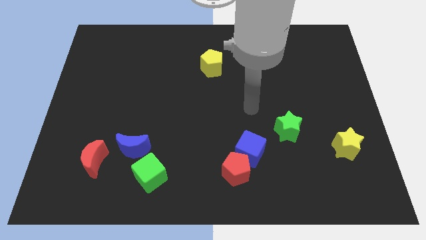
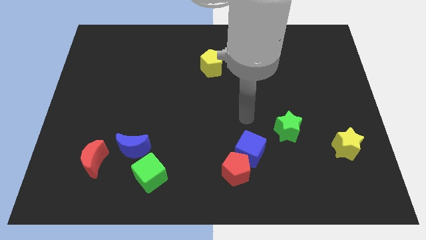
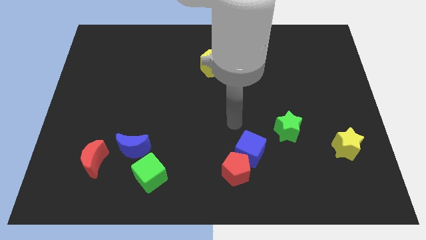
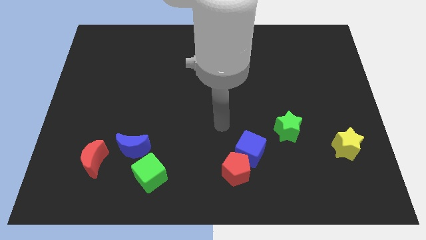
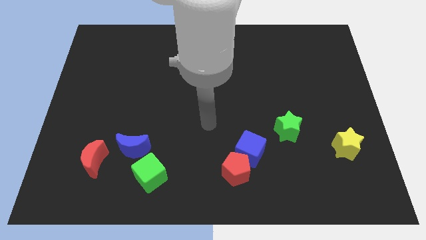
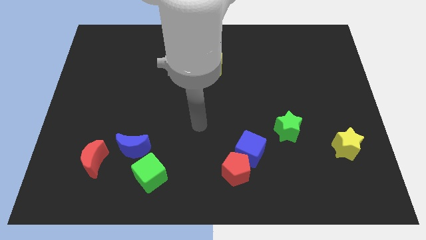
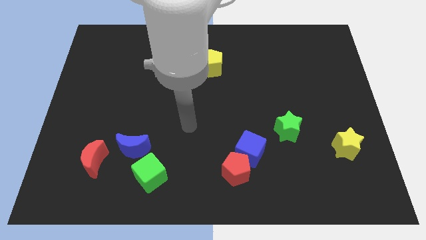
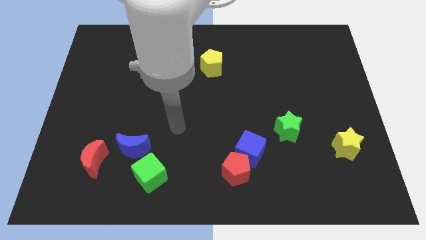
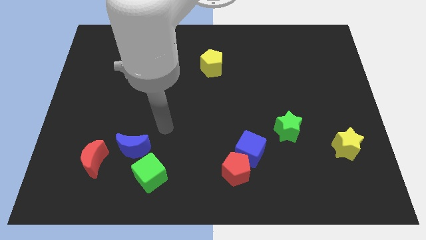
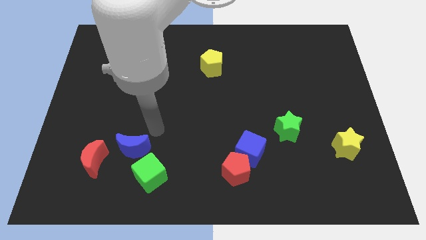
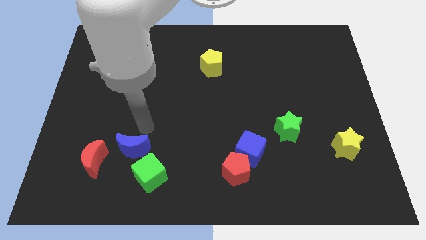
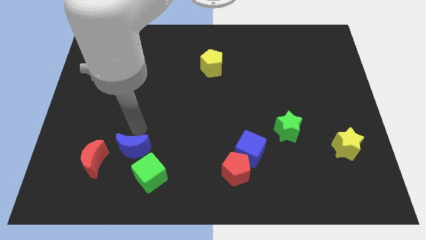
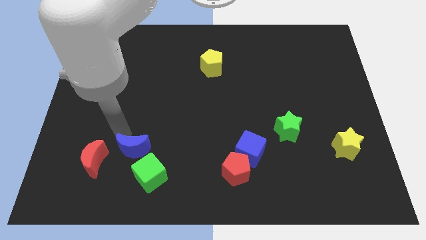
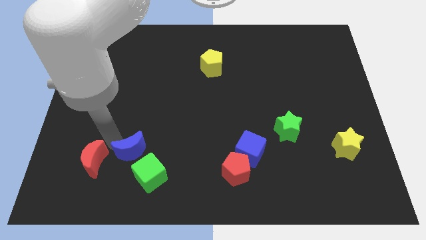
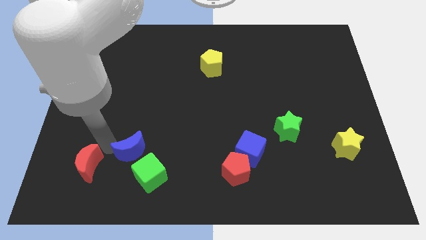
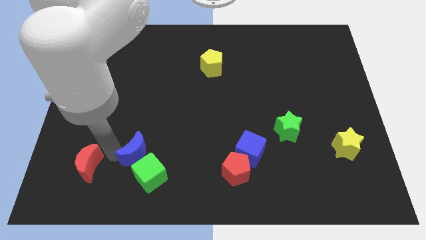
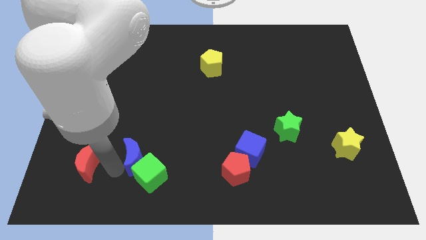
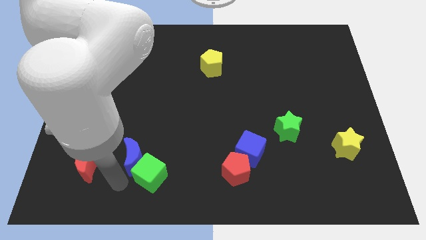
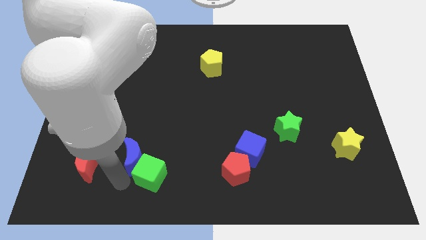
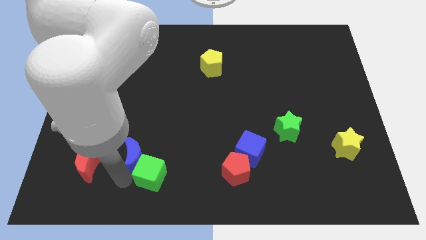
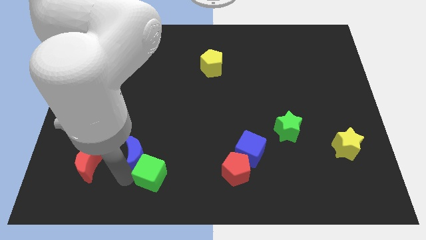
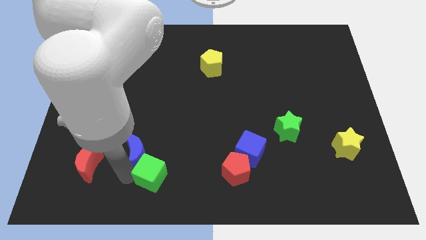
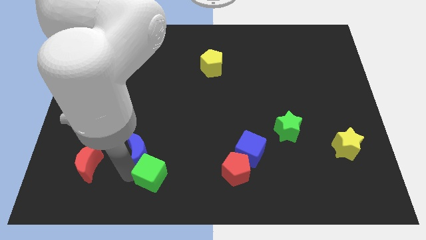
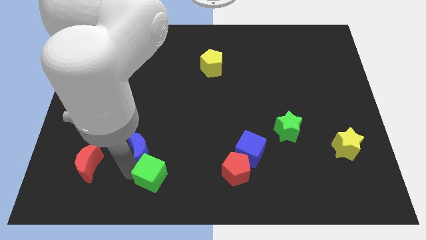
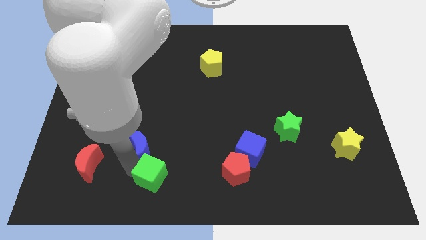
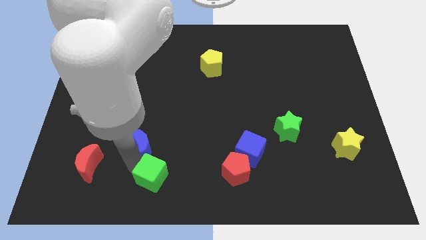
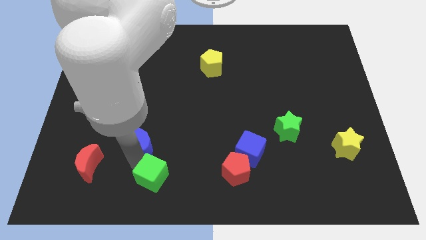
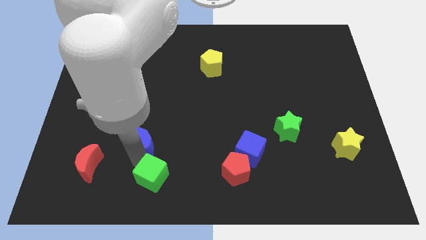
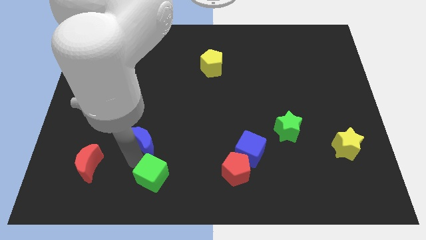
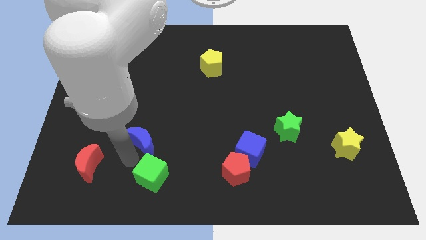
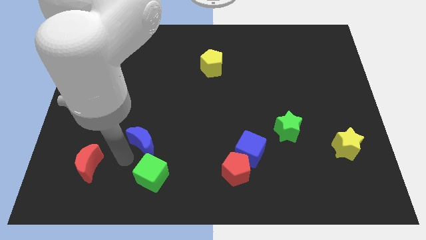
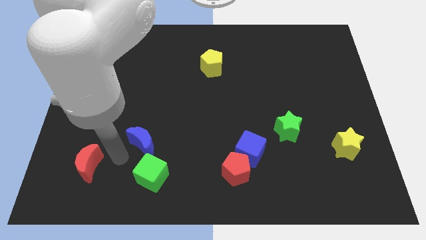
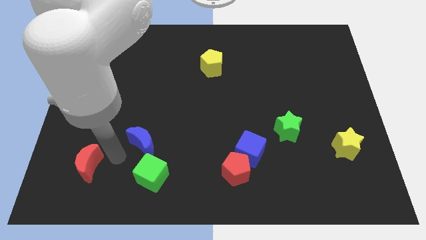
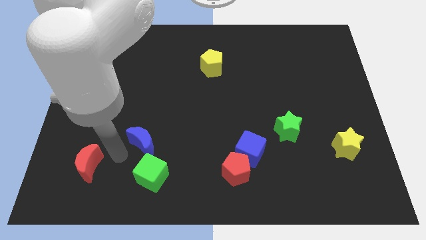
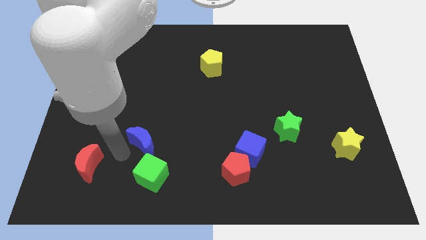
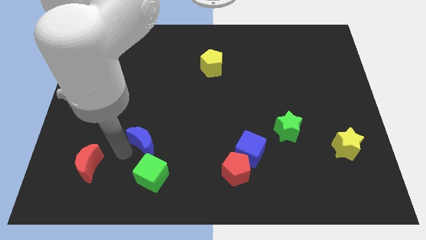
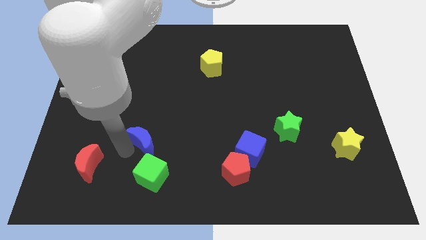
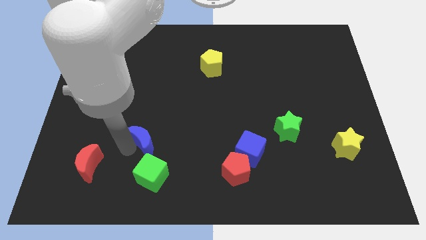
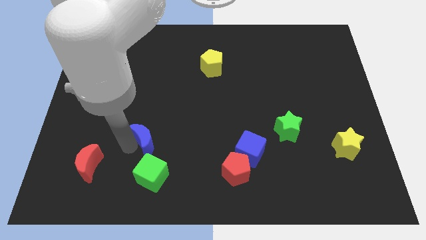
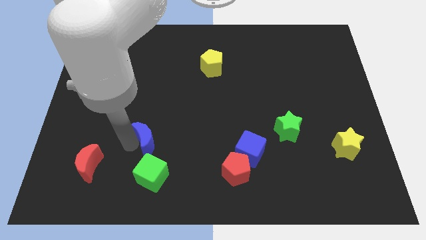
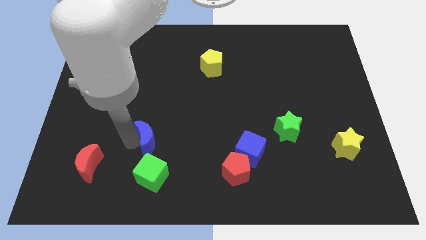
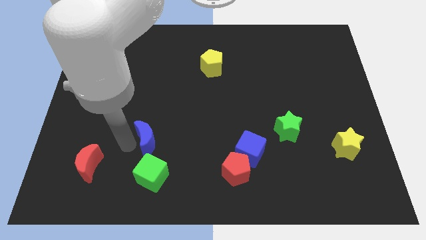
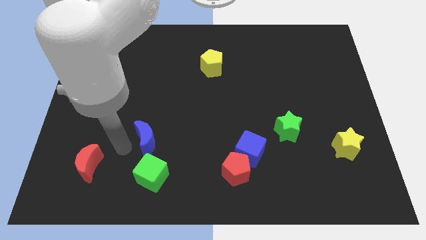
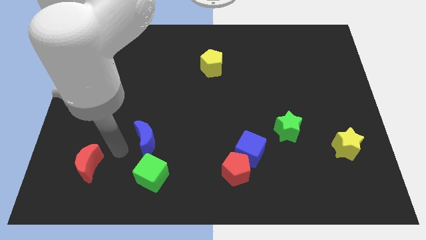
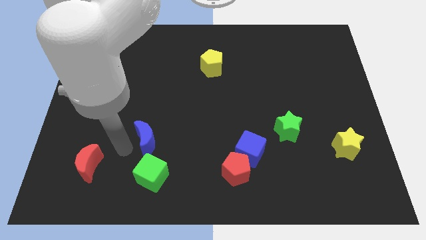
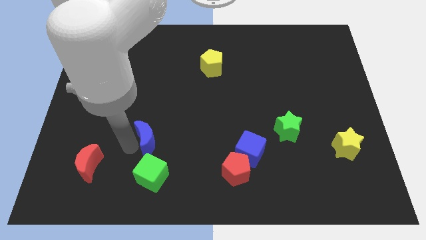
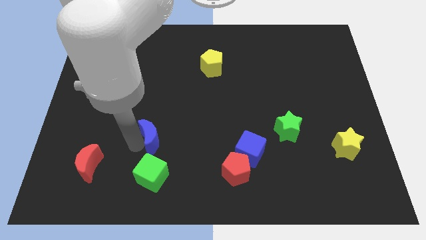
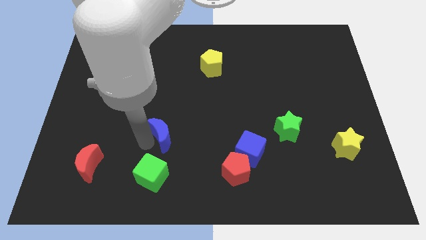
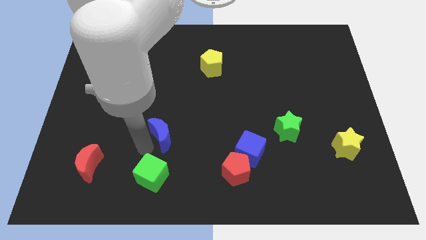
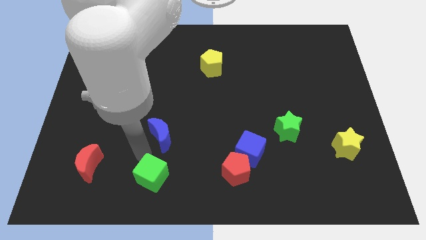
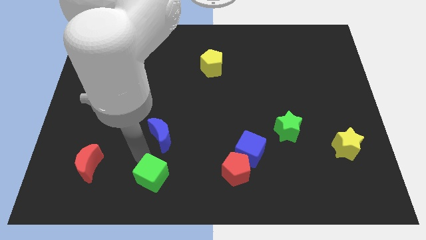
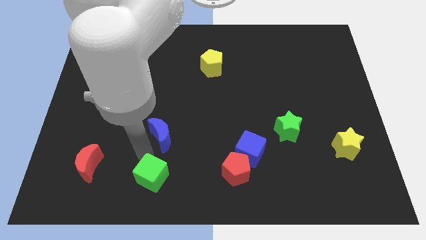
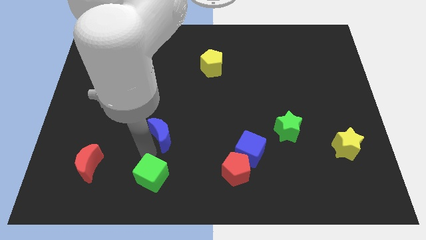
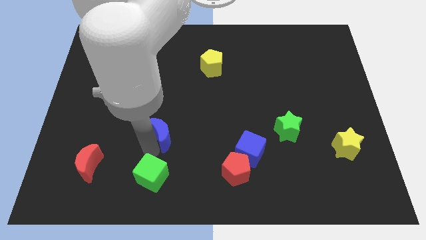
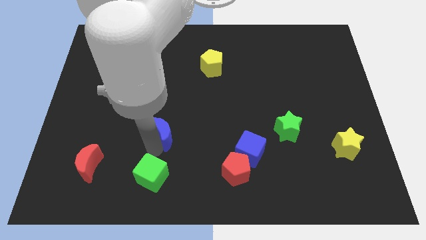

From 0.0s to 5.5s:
slide the blue moon upwards and to the right diagonally a little bit

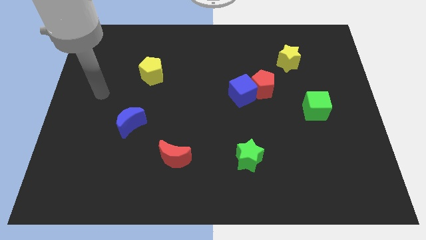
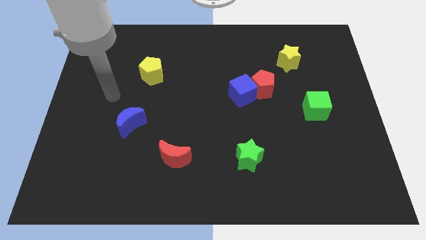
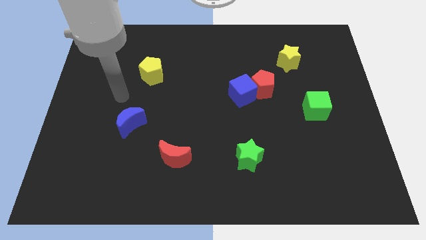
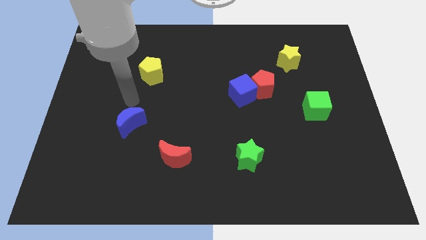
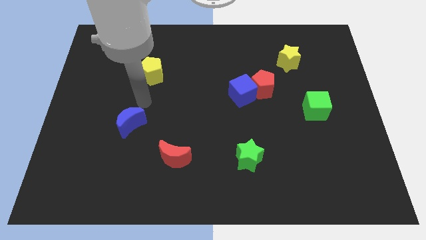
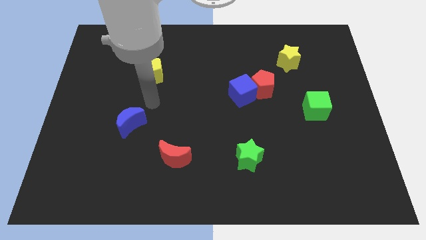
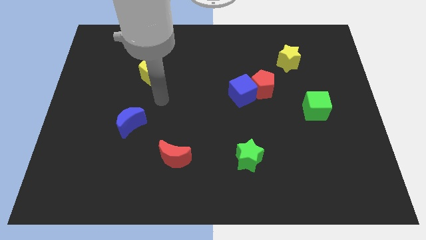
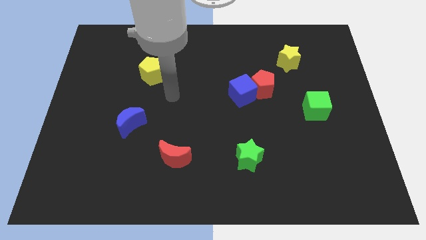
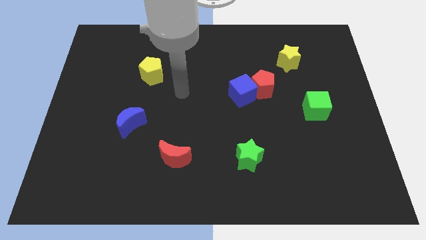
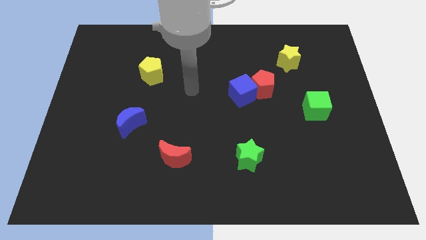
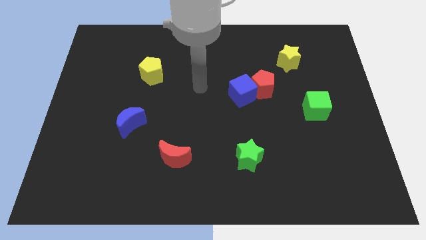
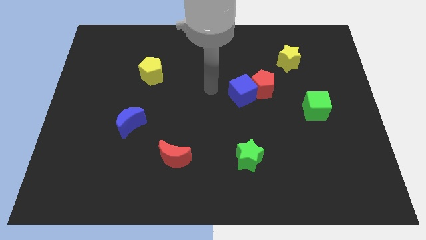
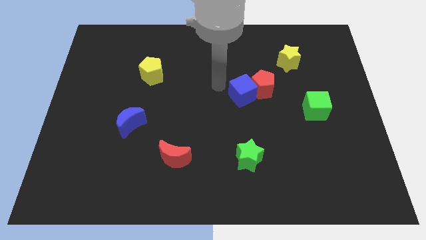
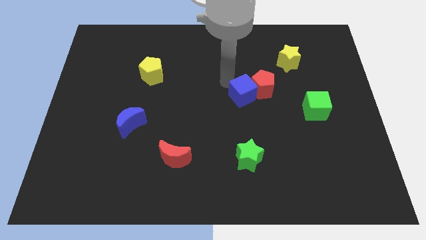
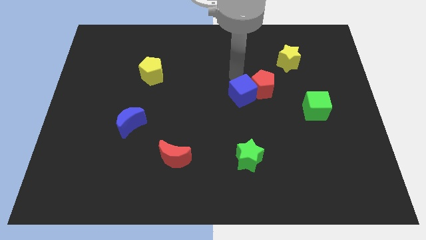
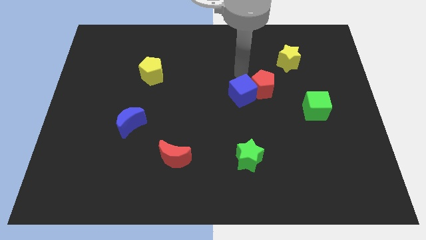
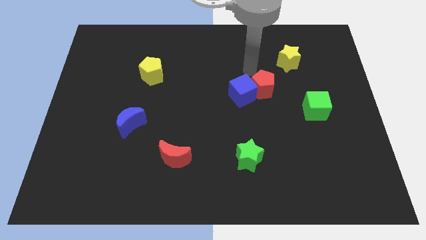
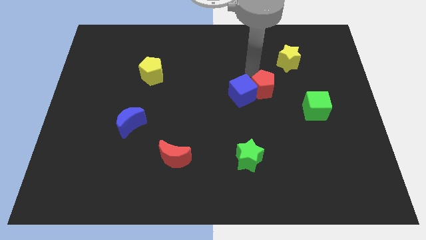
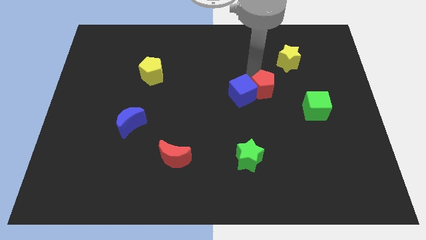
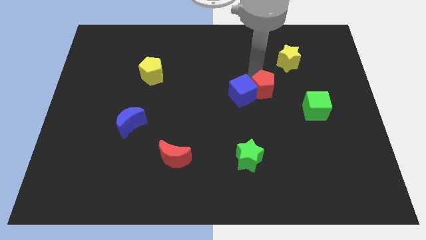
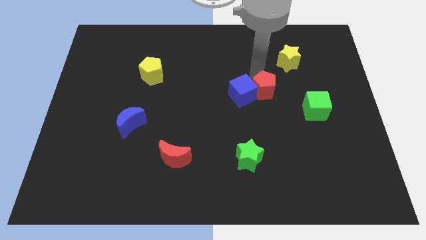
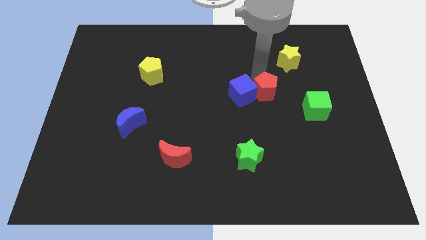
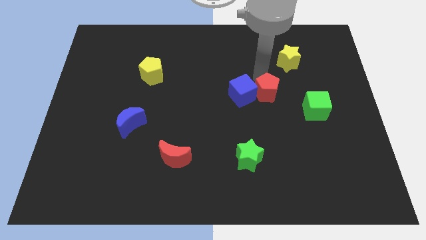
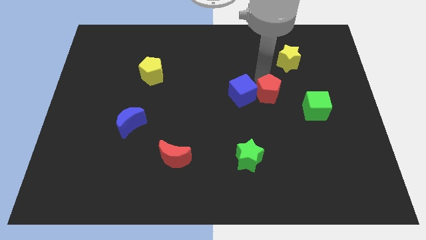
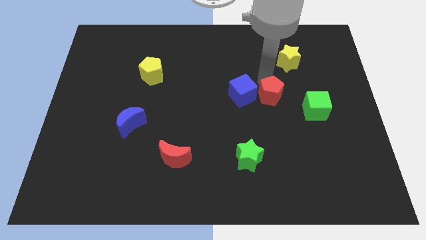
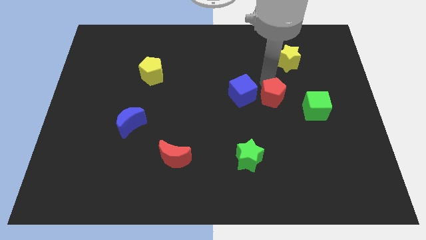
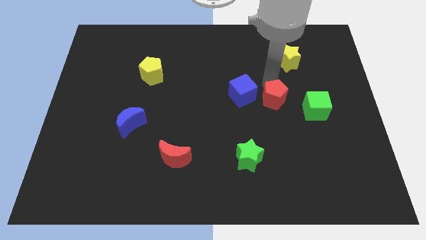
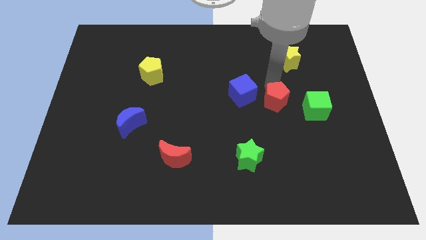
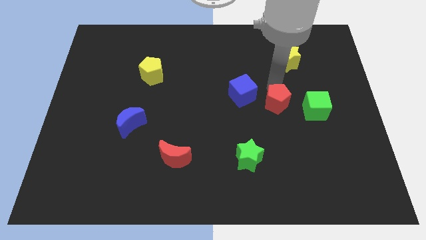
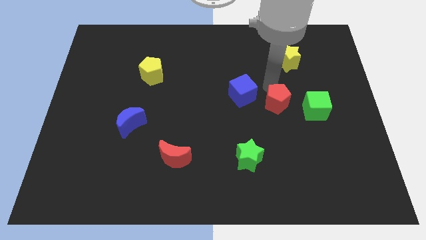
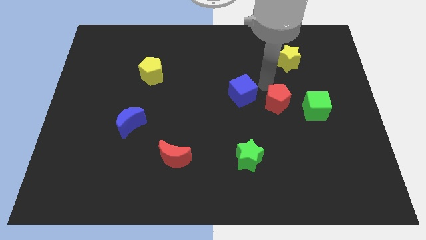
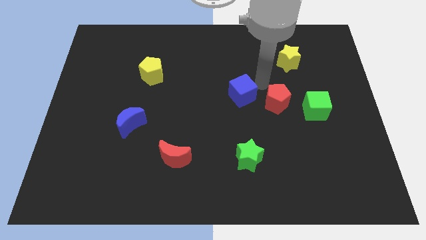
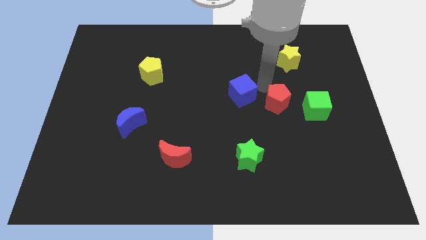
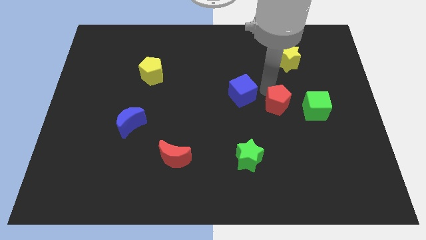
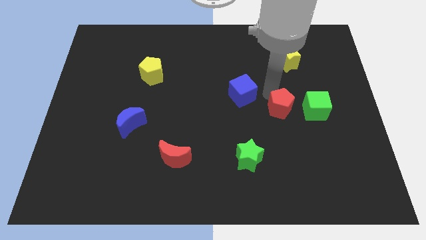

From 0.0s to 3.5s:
slightly push the red pentagon diagonally down and to the right
